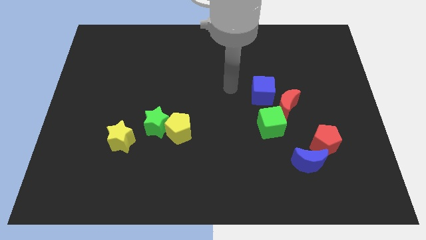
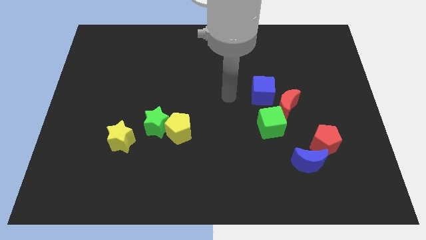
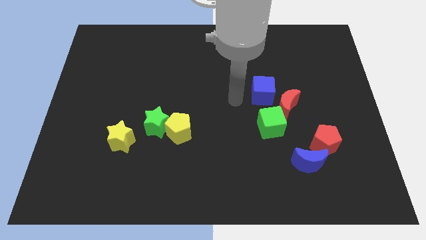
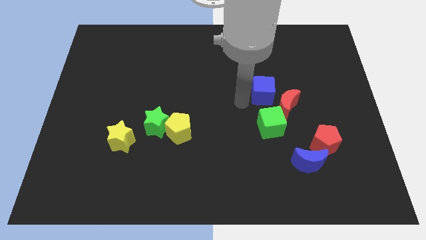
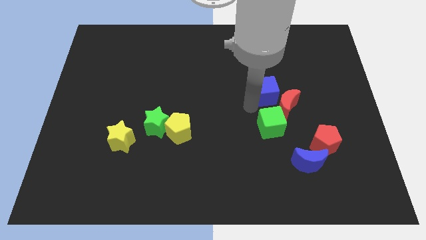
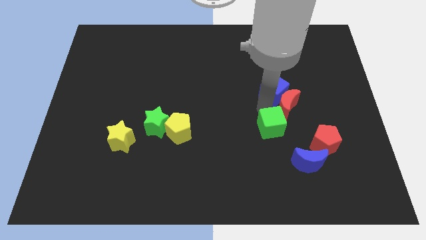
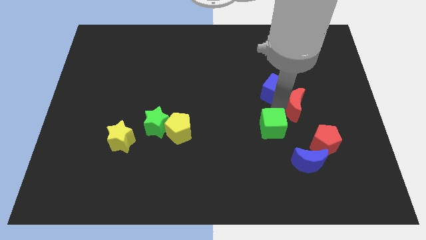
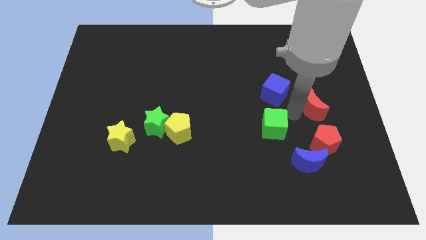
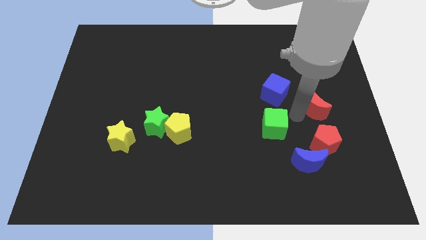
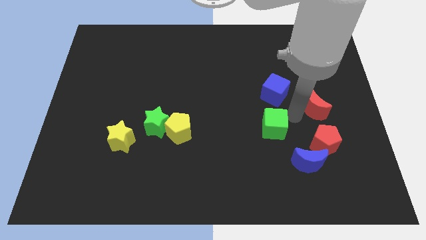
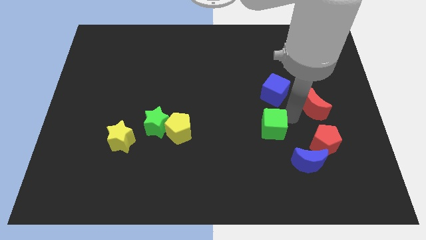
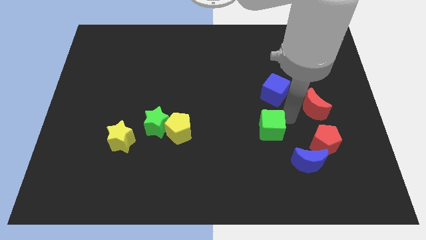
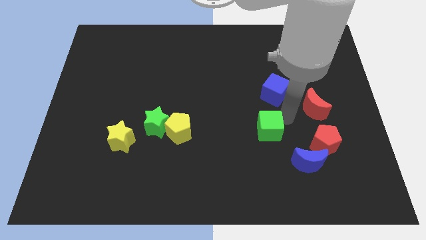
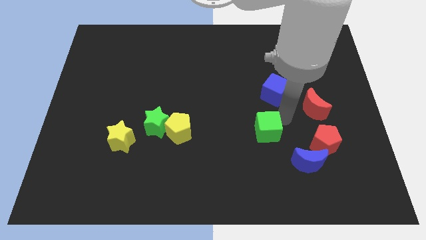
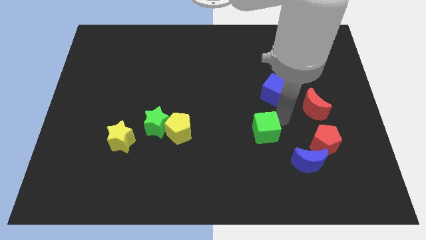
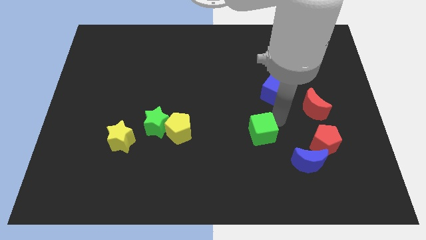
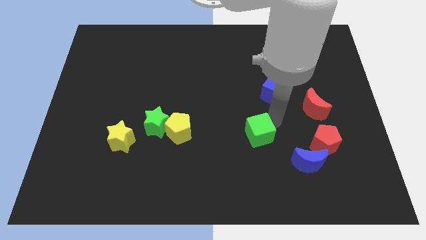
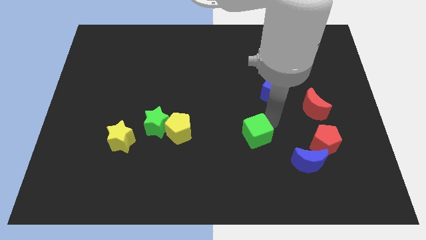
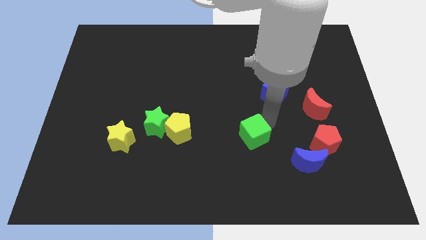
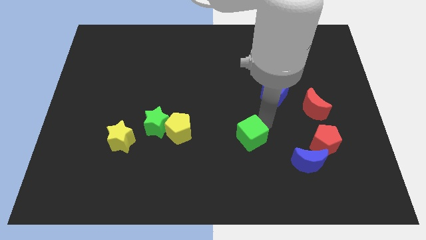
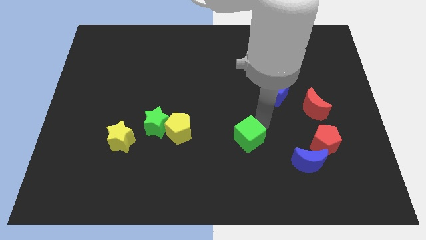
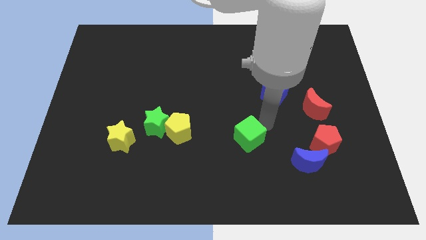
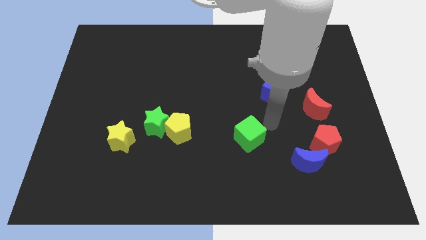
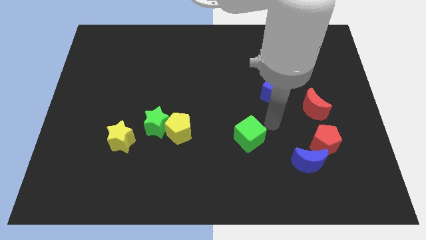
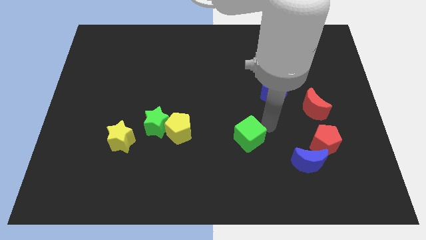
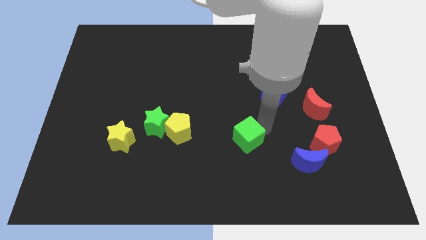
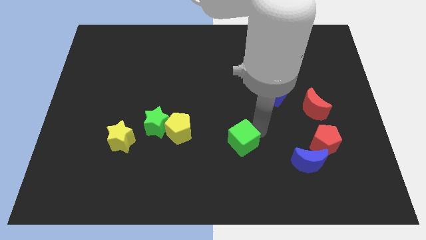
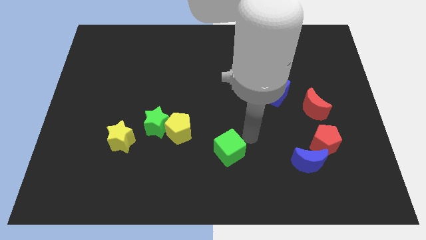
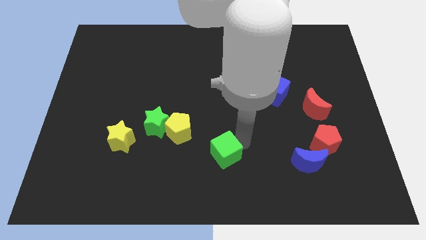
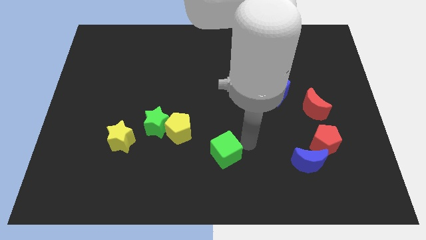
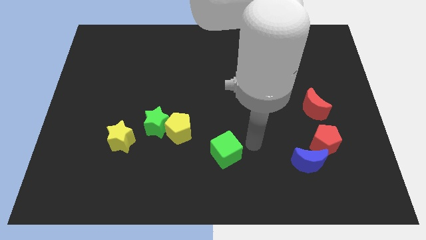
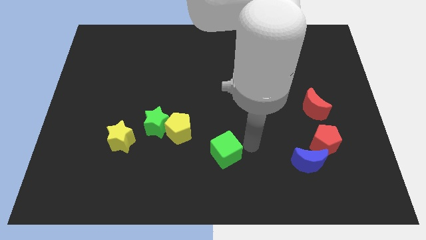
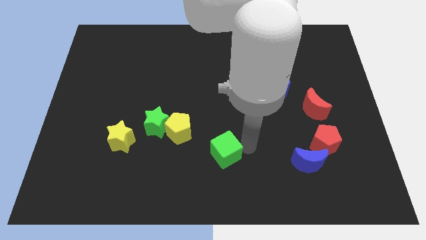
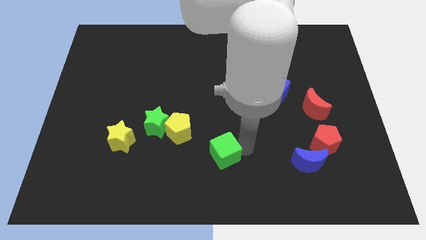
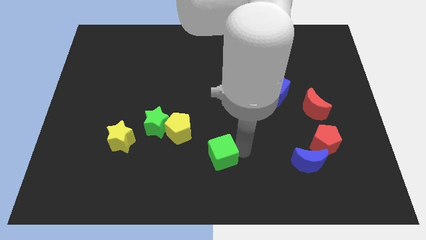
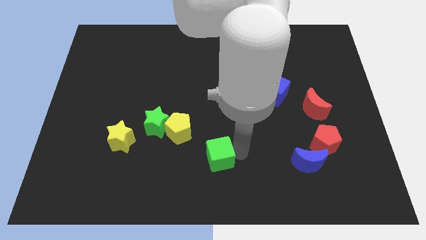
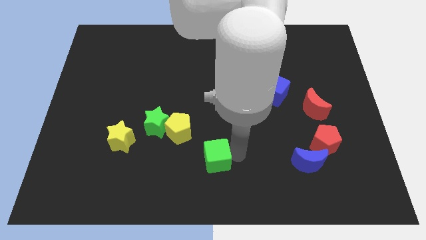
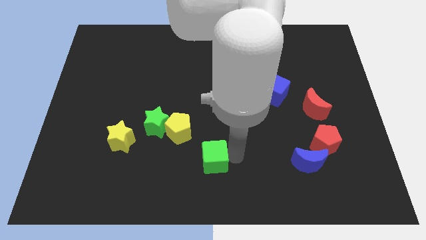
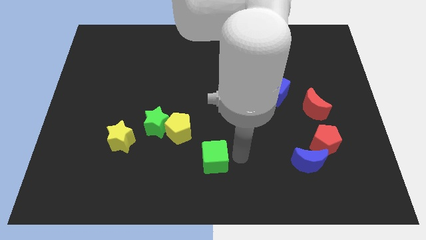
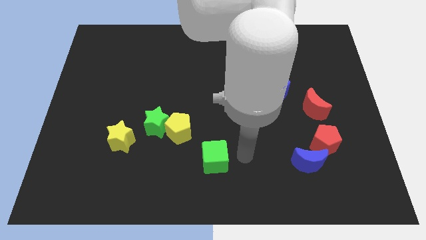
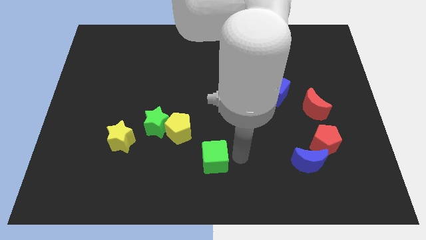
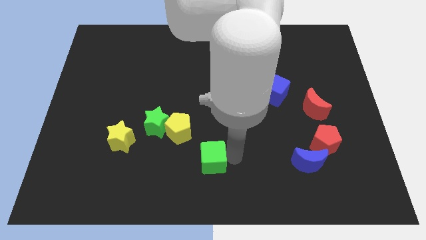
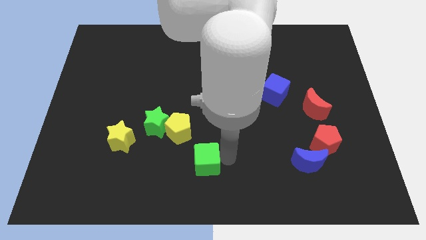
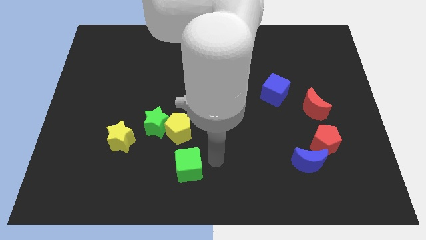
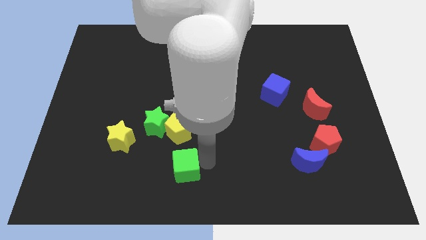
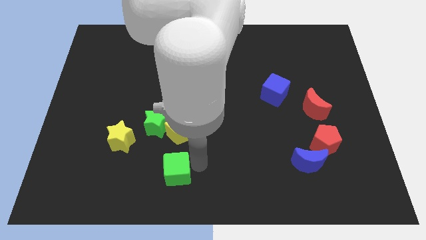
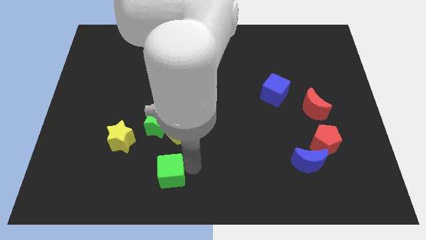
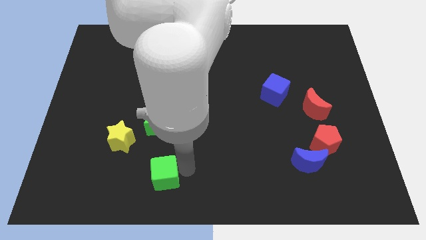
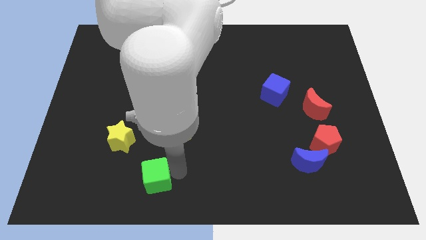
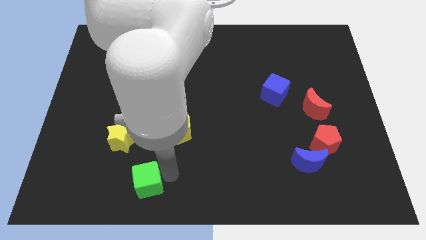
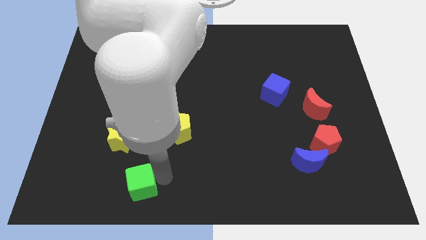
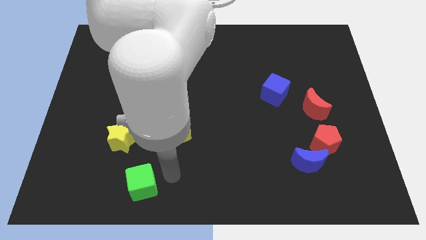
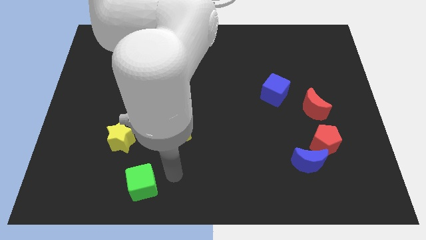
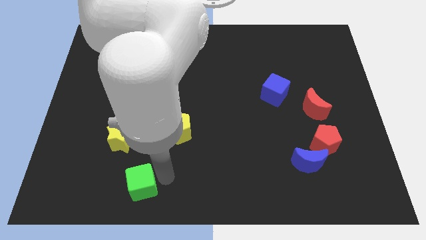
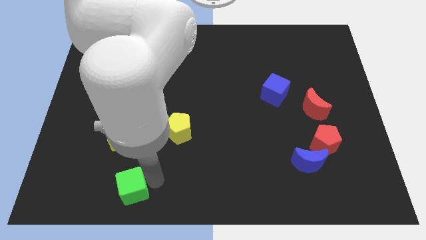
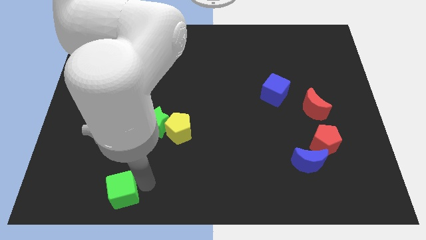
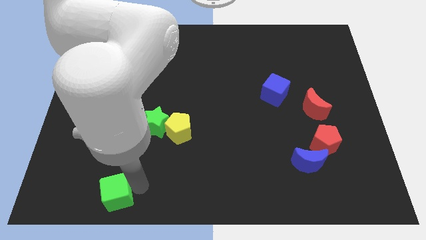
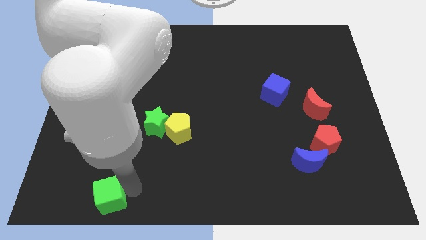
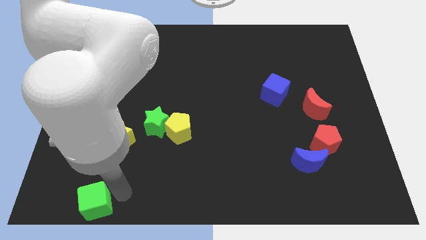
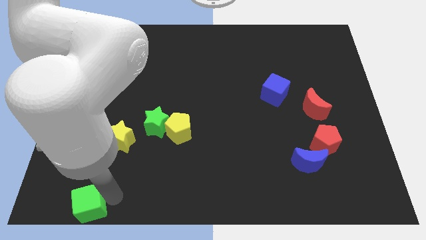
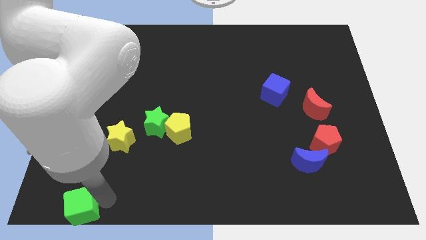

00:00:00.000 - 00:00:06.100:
push the green cube to the bottom left of the board

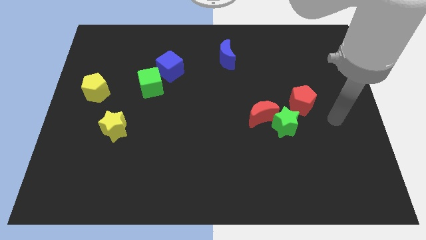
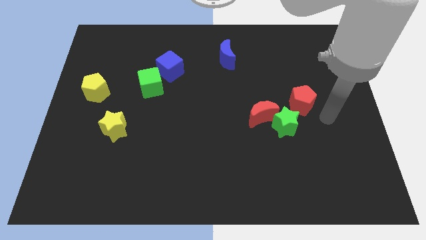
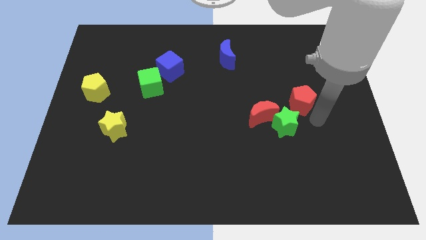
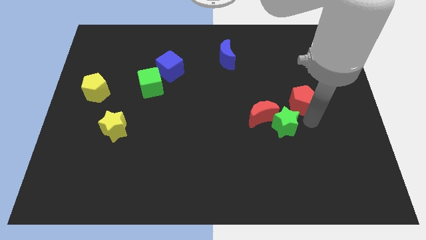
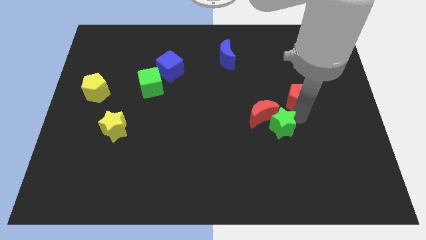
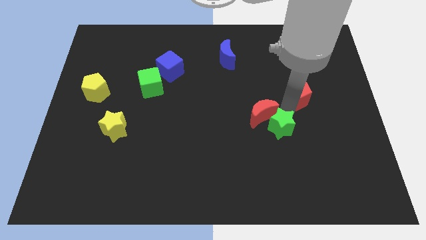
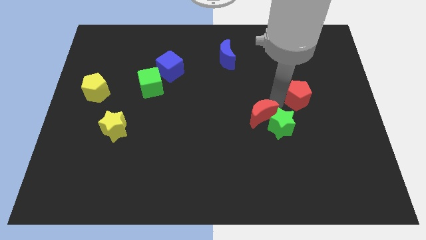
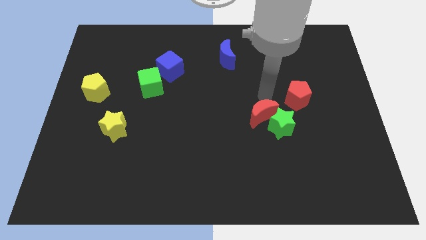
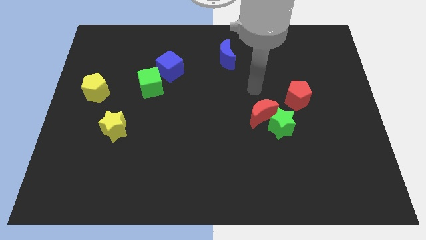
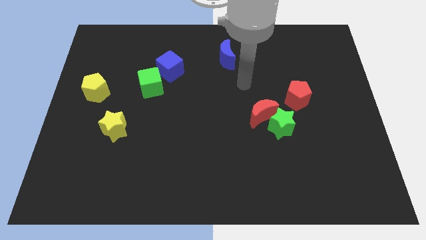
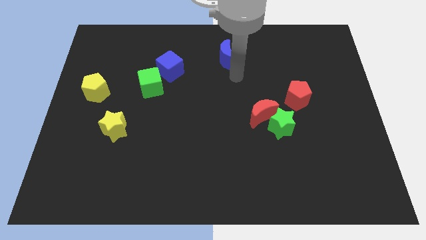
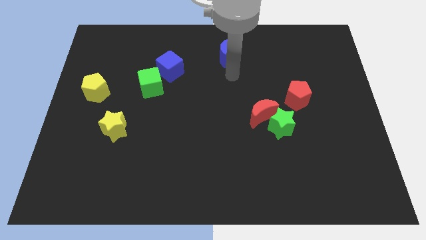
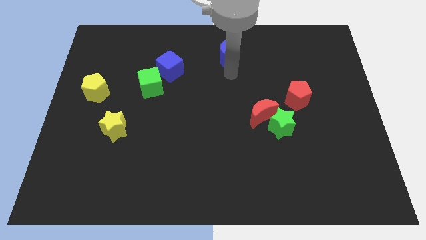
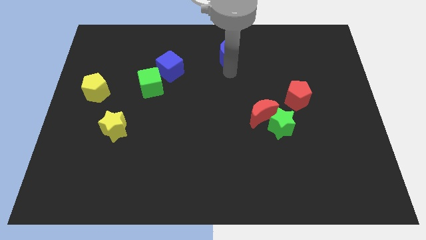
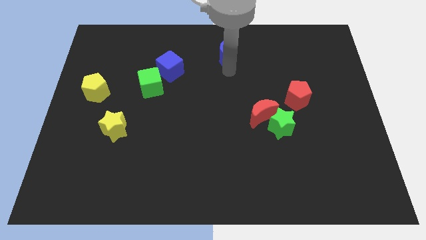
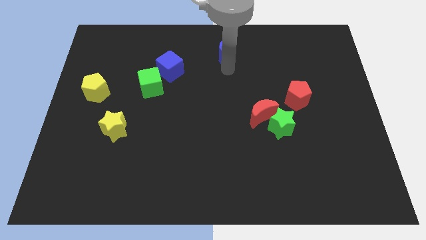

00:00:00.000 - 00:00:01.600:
slide the blue moon to the towards your base
